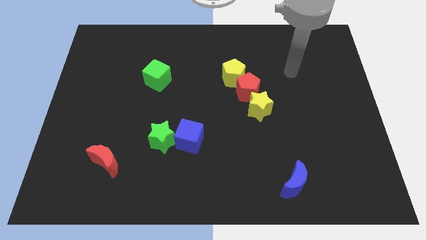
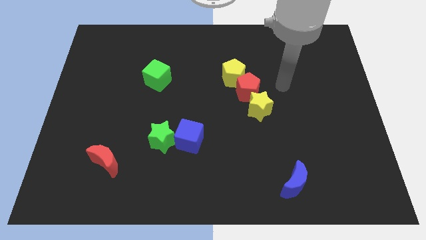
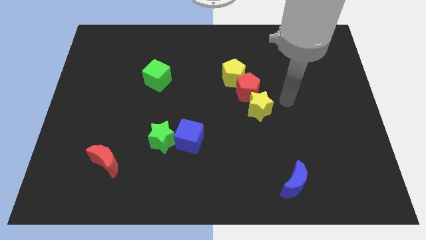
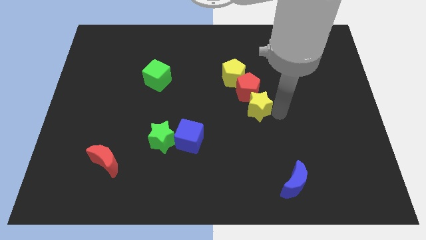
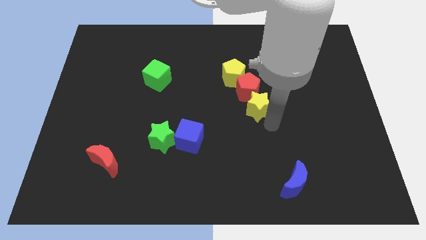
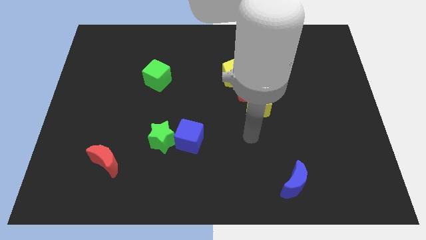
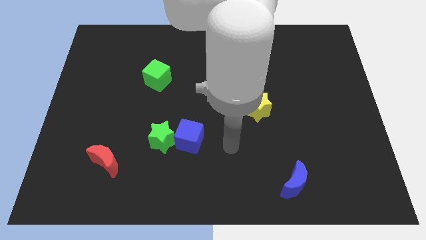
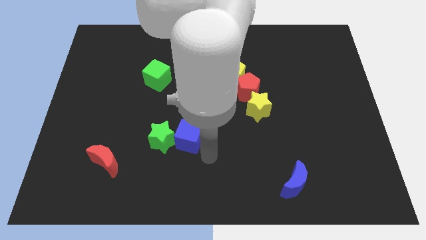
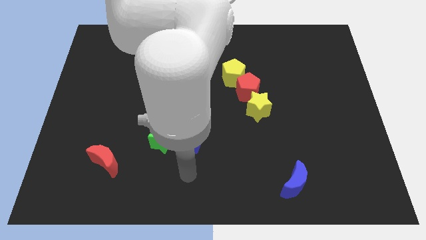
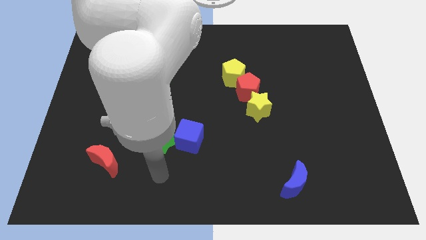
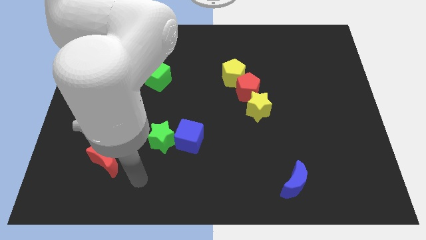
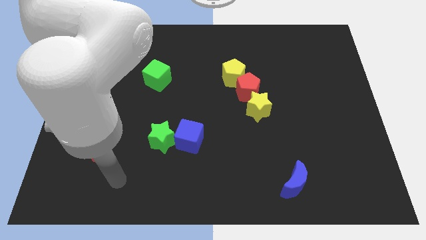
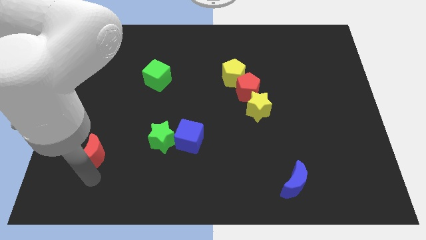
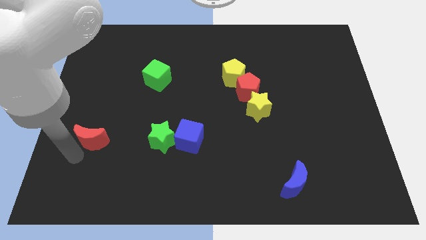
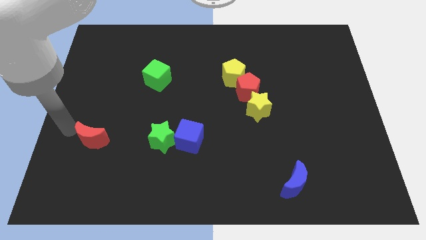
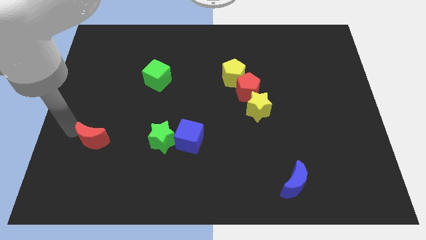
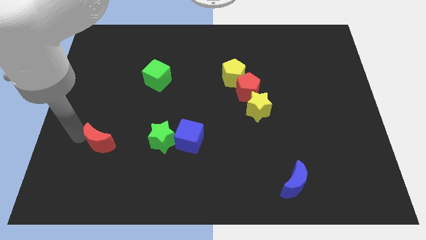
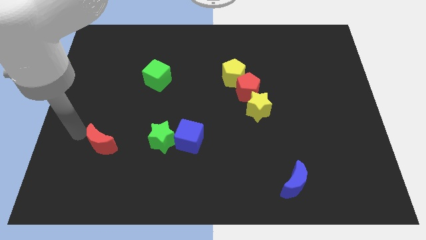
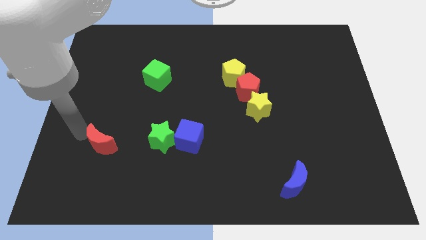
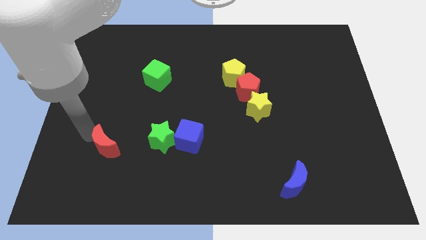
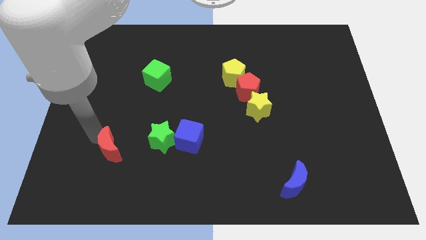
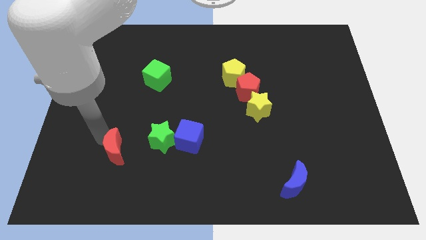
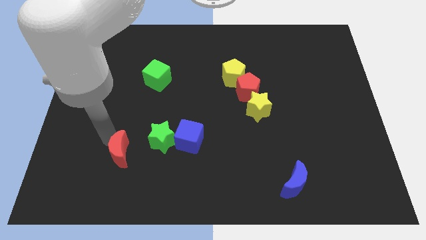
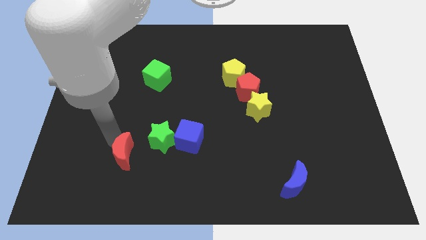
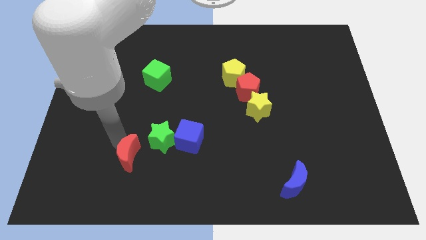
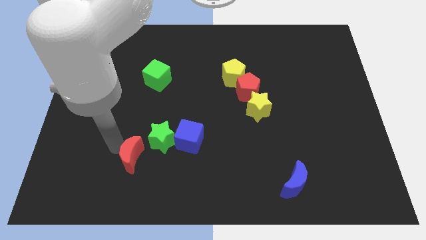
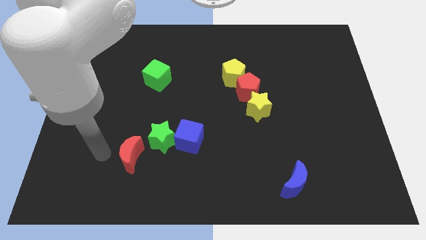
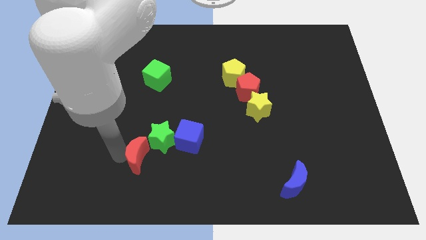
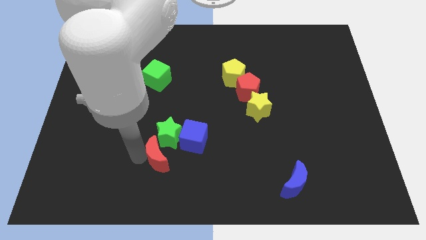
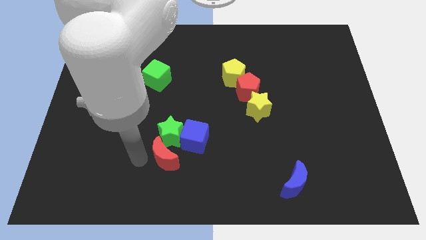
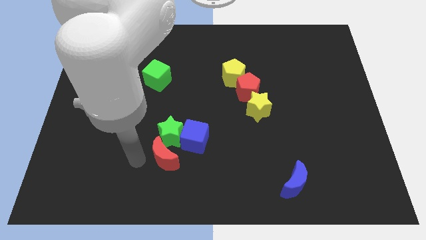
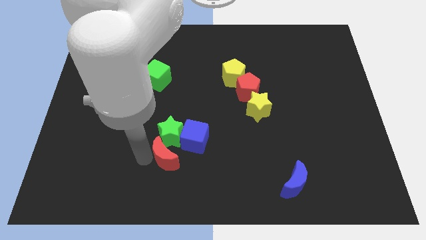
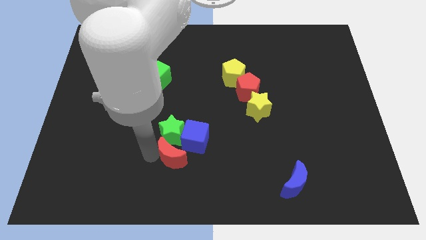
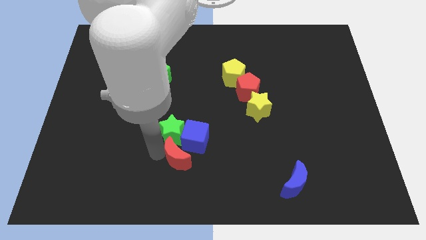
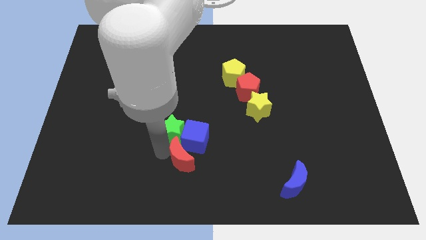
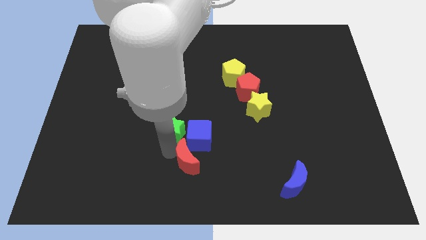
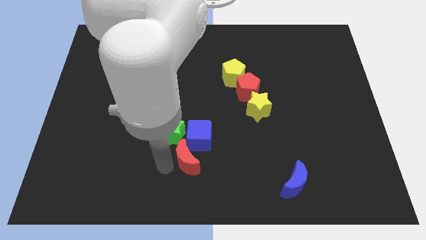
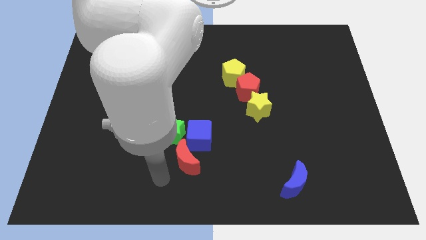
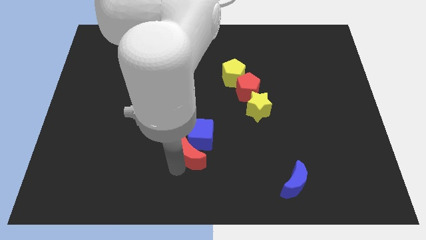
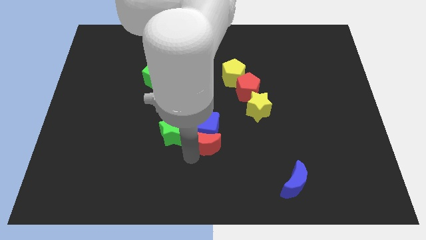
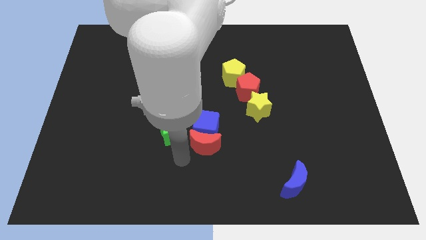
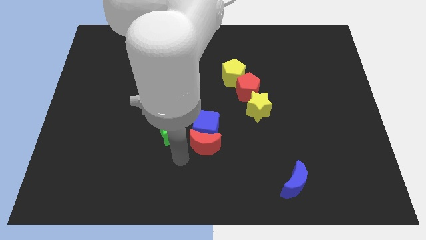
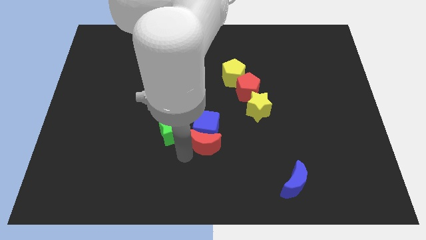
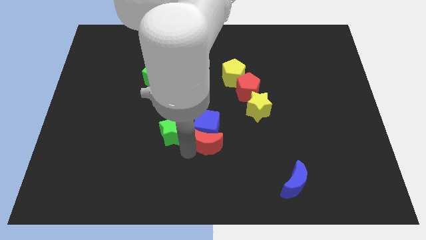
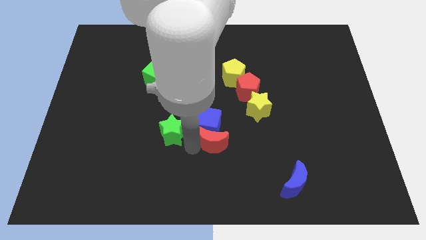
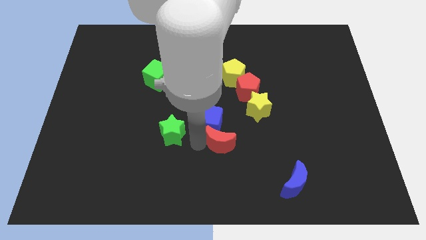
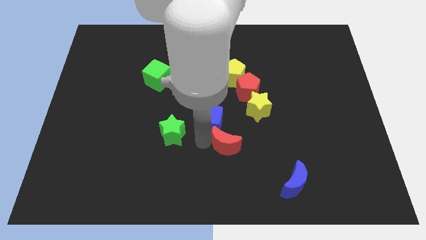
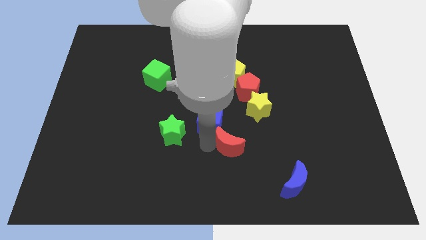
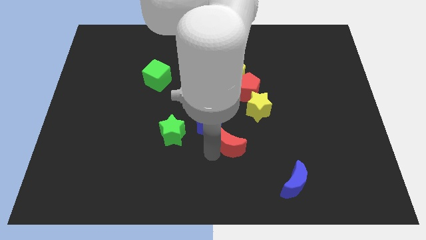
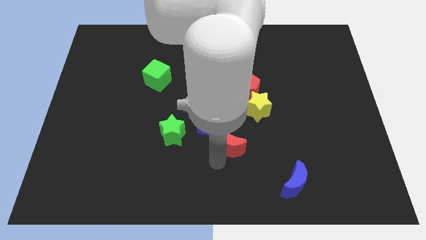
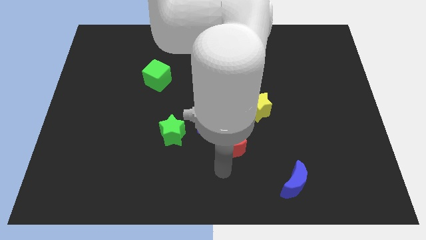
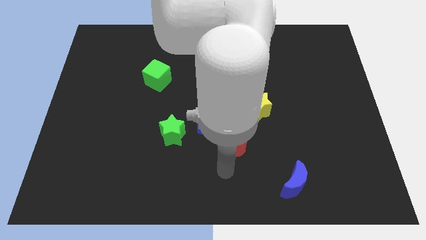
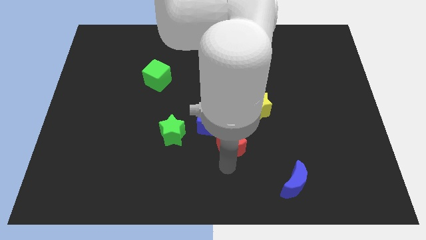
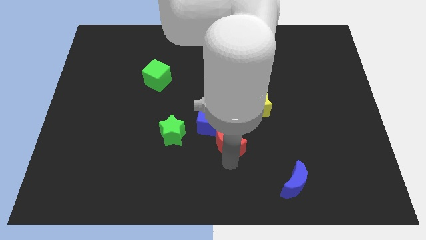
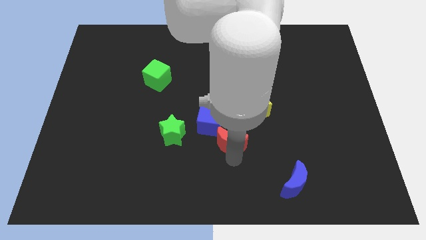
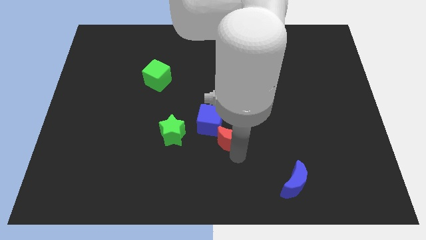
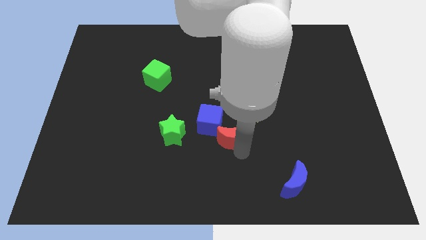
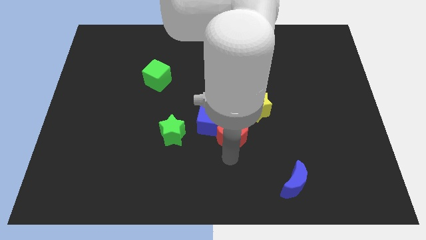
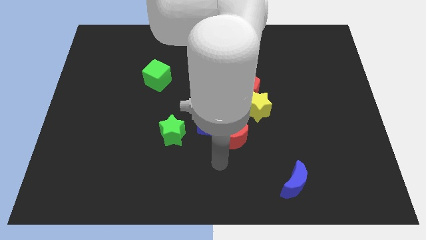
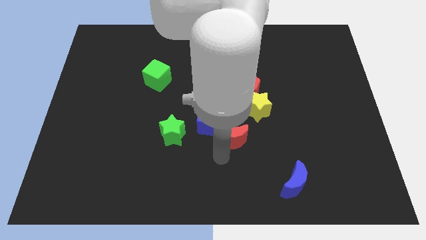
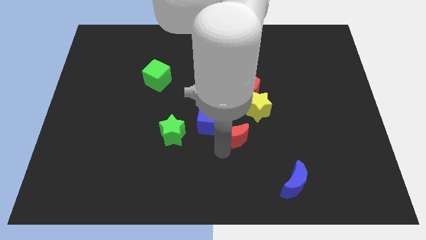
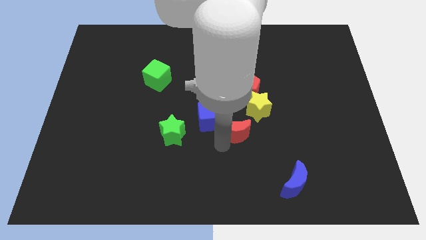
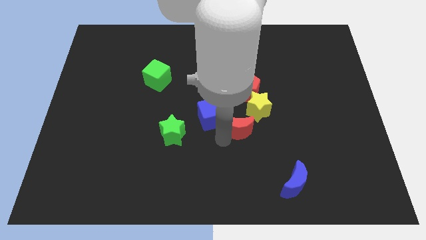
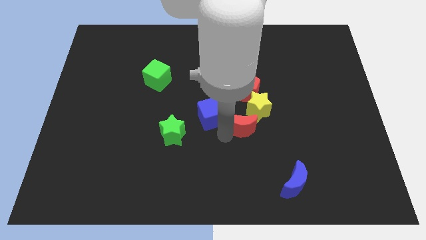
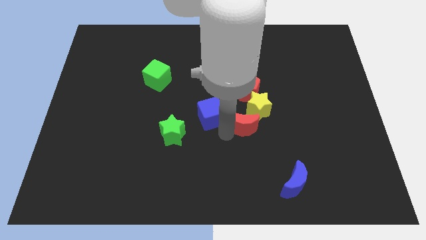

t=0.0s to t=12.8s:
move the red moon towards the yellow star
